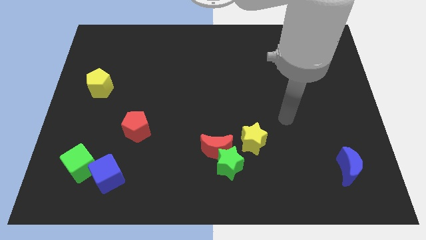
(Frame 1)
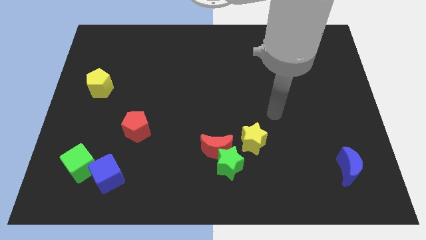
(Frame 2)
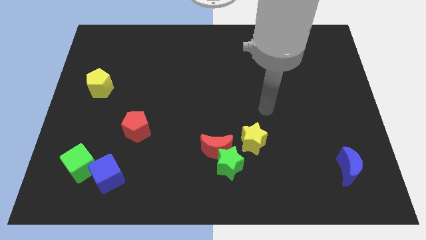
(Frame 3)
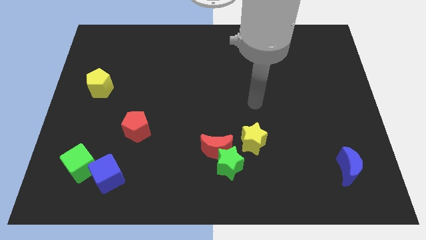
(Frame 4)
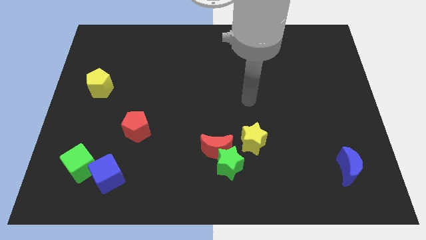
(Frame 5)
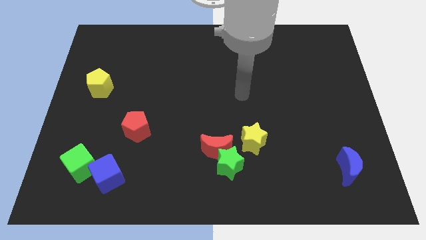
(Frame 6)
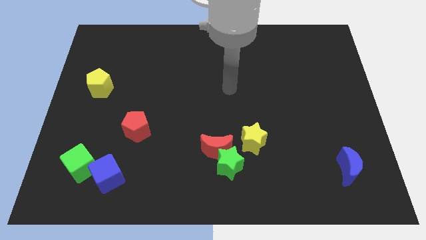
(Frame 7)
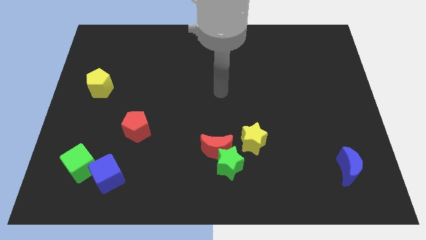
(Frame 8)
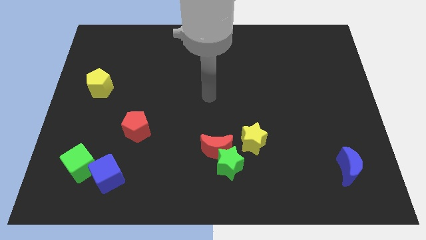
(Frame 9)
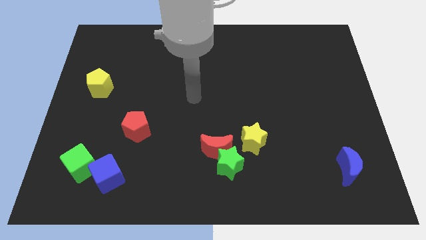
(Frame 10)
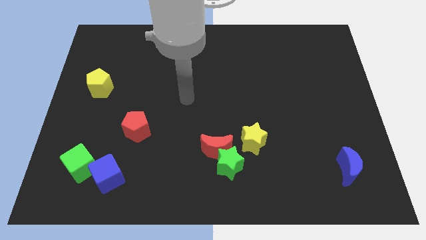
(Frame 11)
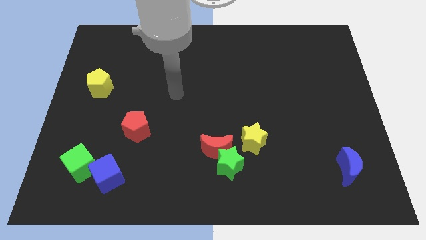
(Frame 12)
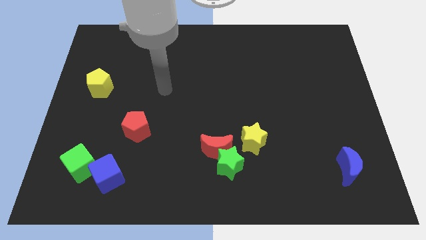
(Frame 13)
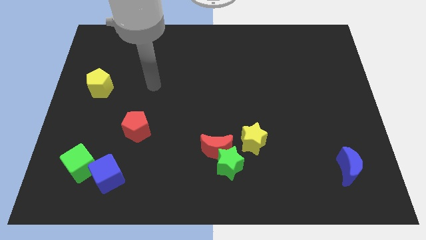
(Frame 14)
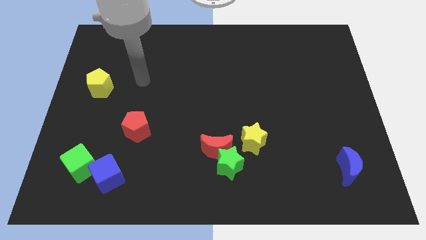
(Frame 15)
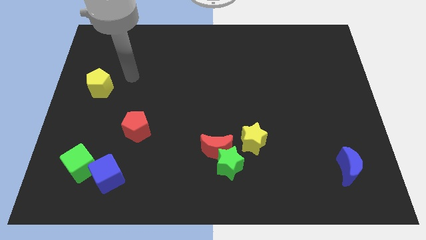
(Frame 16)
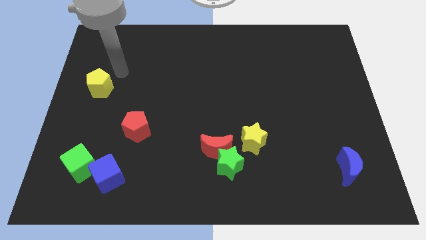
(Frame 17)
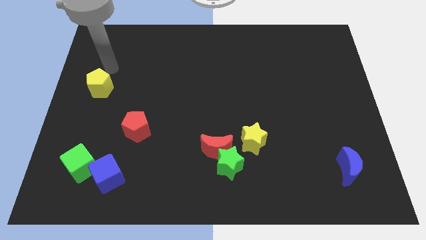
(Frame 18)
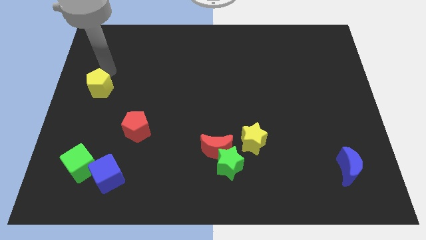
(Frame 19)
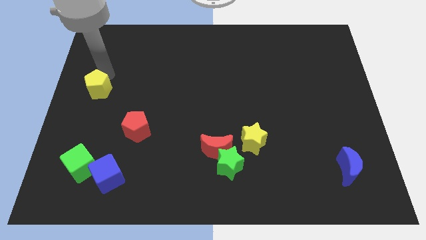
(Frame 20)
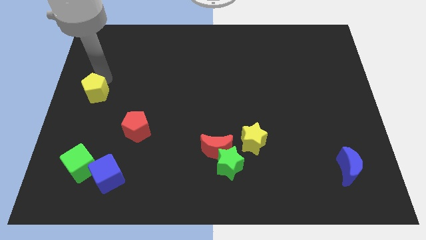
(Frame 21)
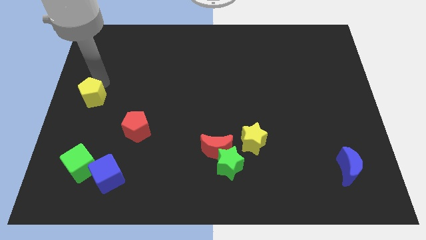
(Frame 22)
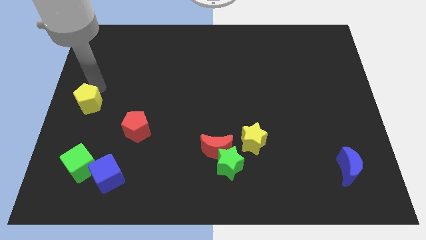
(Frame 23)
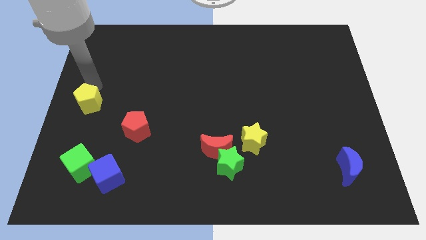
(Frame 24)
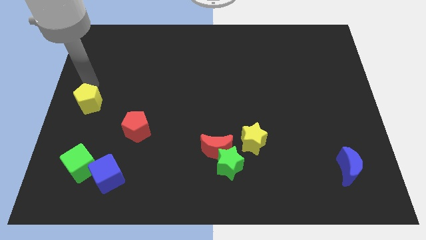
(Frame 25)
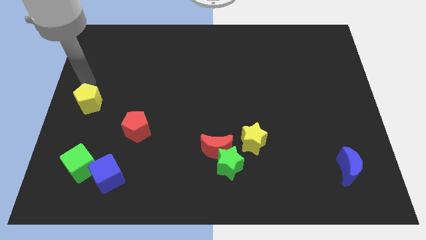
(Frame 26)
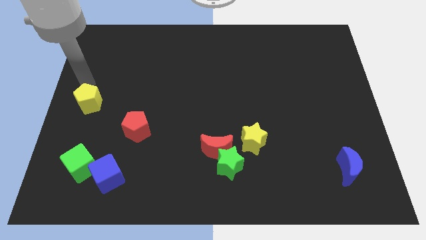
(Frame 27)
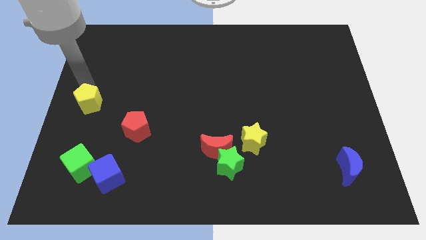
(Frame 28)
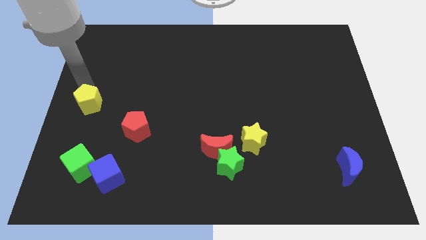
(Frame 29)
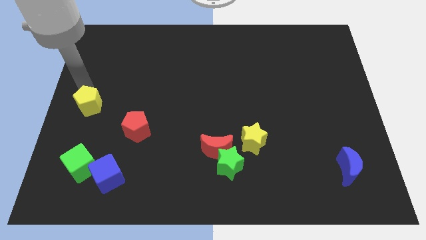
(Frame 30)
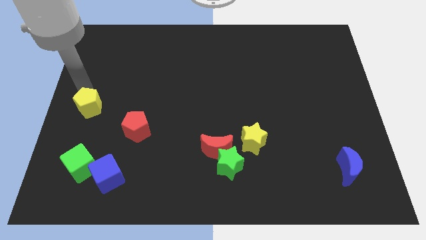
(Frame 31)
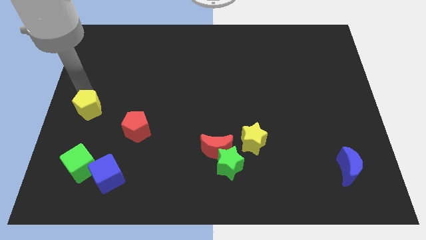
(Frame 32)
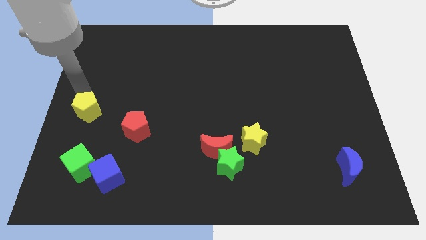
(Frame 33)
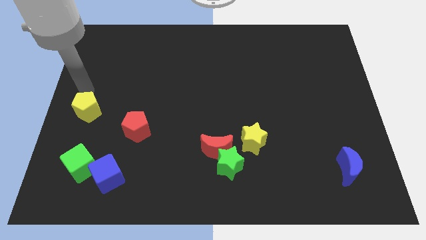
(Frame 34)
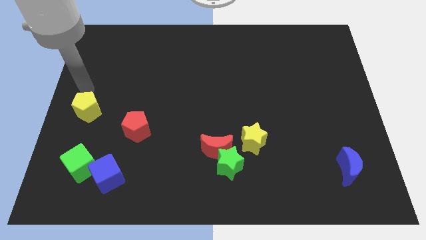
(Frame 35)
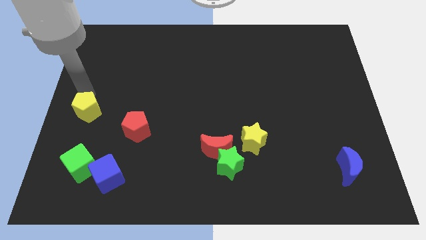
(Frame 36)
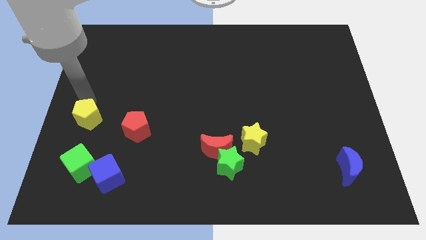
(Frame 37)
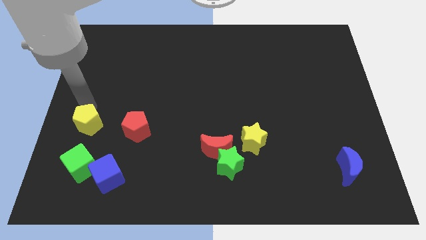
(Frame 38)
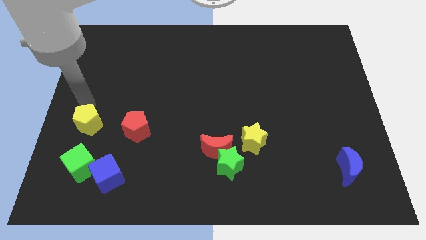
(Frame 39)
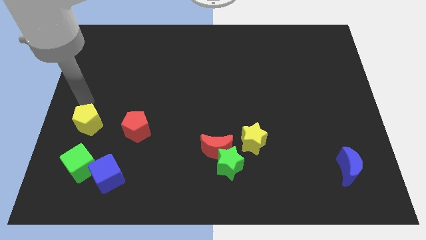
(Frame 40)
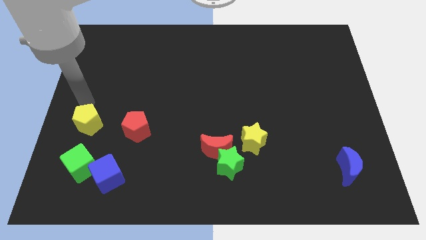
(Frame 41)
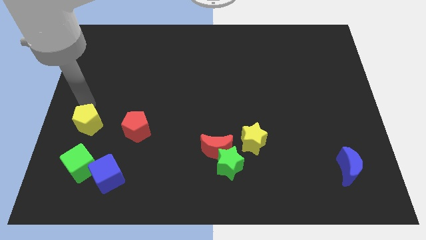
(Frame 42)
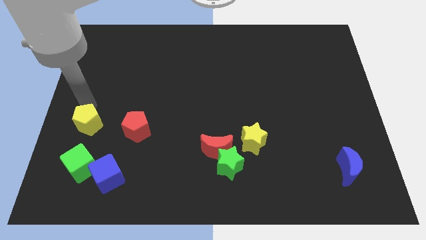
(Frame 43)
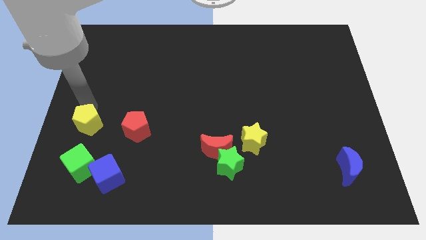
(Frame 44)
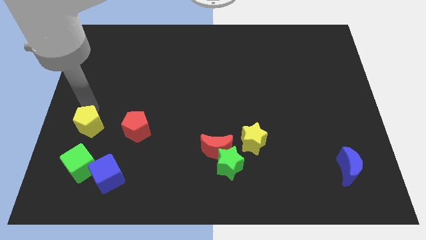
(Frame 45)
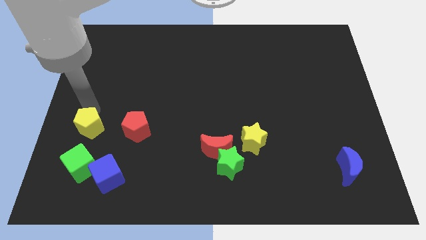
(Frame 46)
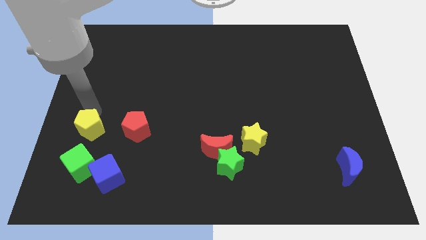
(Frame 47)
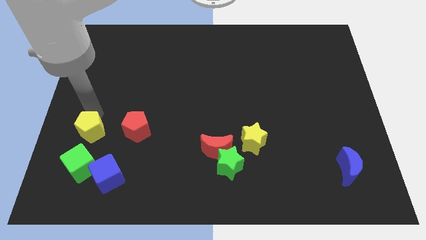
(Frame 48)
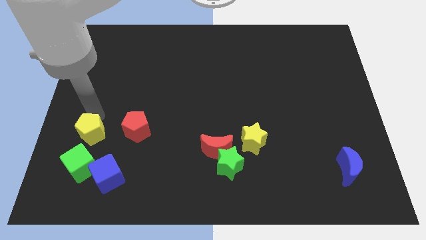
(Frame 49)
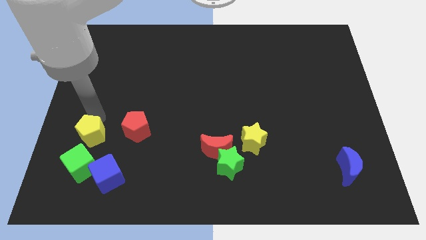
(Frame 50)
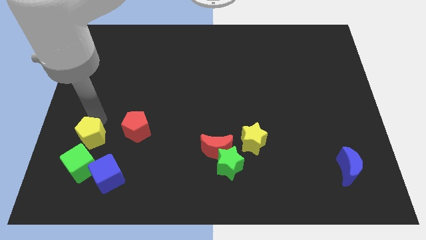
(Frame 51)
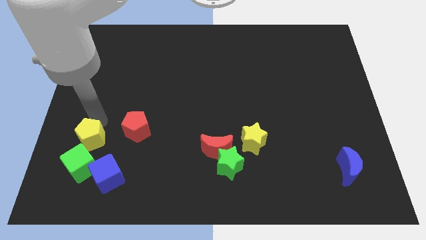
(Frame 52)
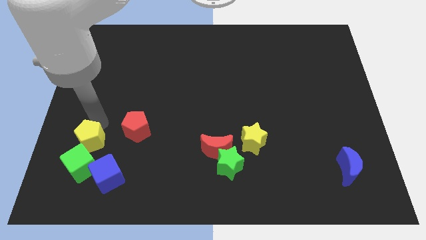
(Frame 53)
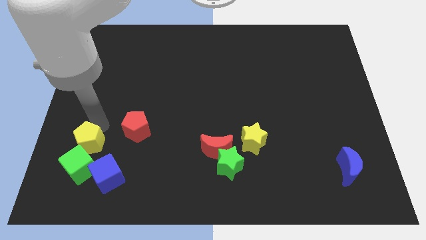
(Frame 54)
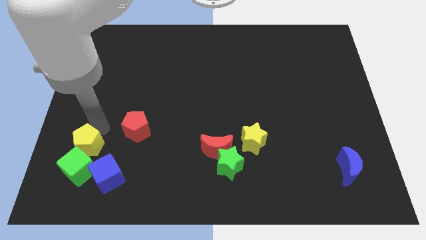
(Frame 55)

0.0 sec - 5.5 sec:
push the yellow pentagon towards the green cube

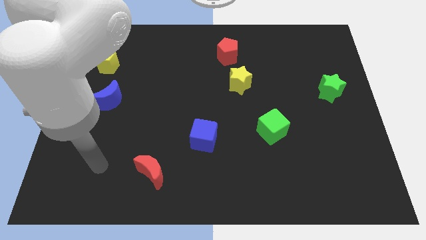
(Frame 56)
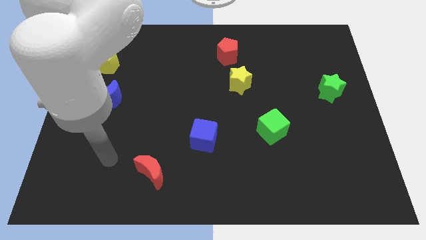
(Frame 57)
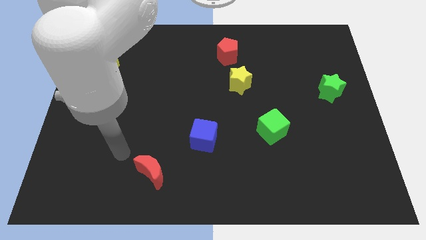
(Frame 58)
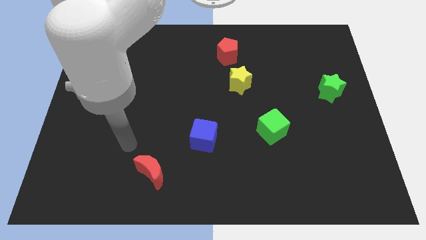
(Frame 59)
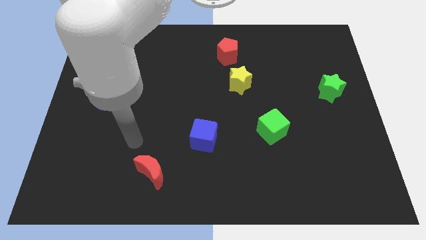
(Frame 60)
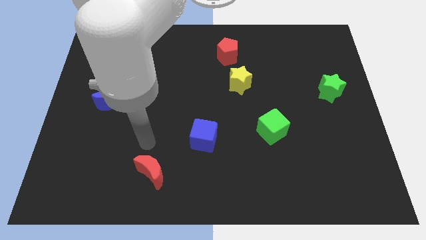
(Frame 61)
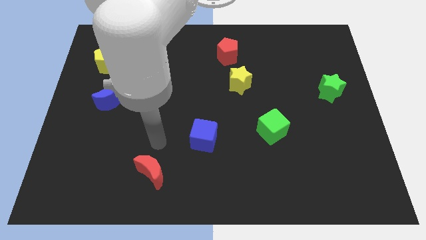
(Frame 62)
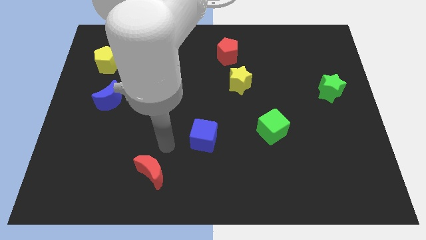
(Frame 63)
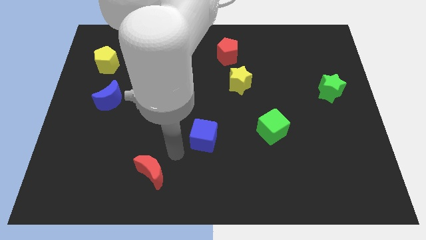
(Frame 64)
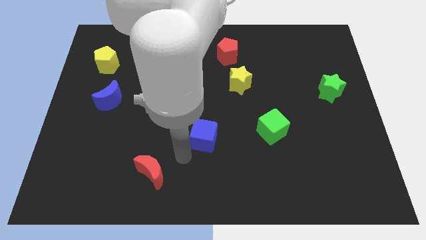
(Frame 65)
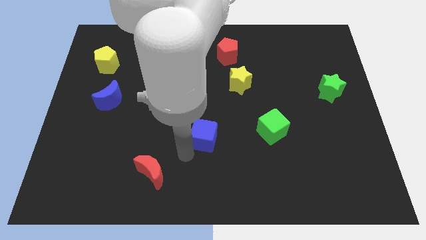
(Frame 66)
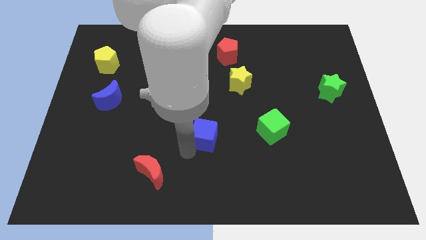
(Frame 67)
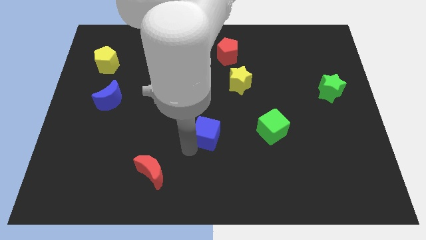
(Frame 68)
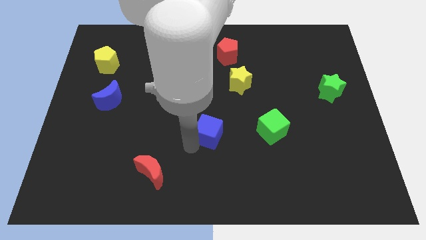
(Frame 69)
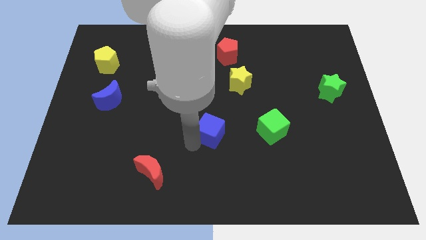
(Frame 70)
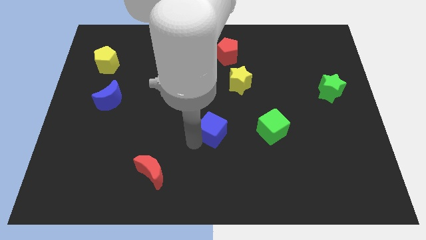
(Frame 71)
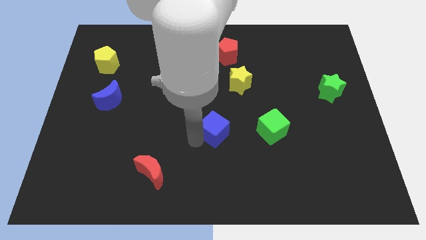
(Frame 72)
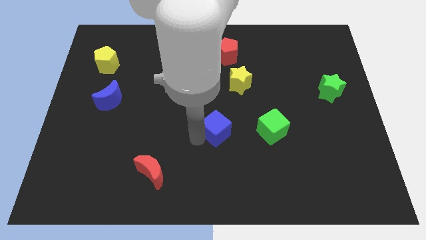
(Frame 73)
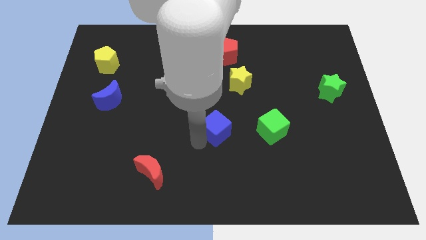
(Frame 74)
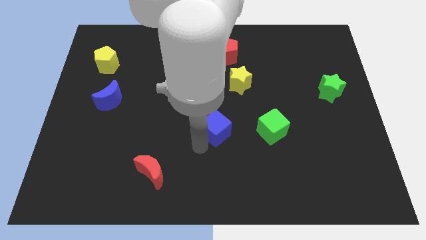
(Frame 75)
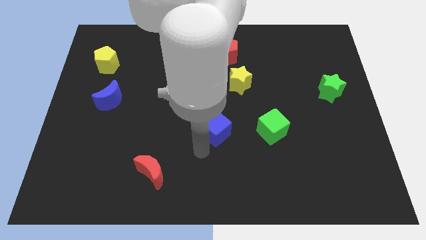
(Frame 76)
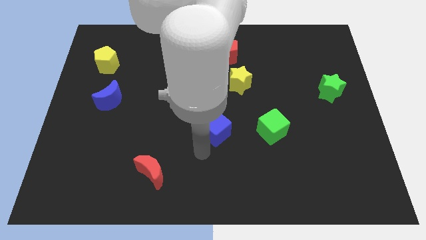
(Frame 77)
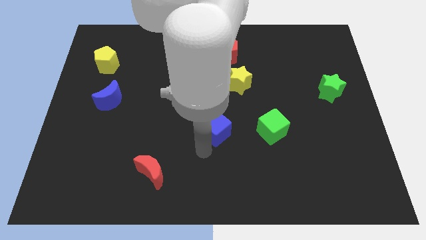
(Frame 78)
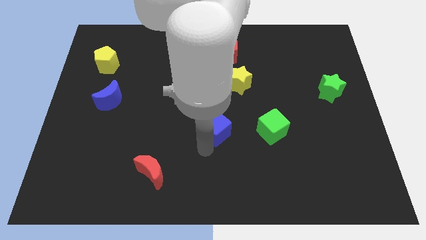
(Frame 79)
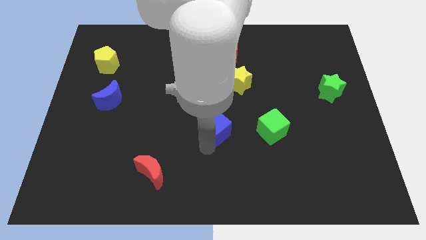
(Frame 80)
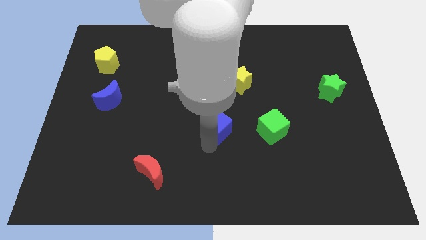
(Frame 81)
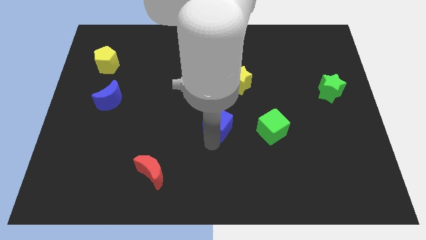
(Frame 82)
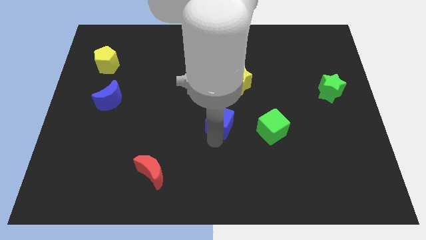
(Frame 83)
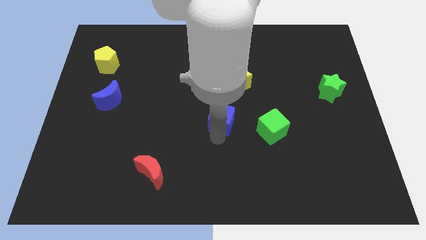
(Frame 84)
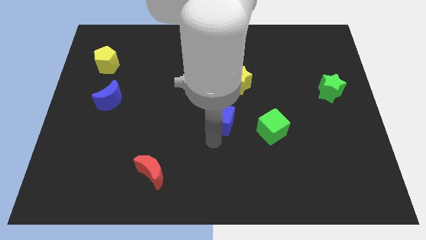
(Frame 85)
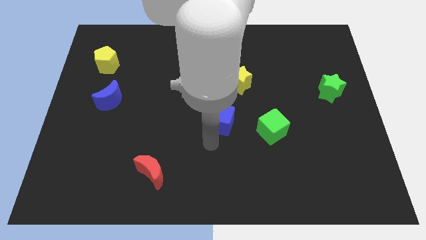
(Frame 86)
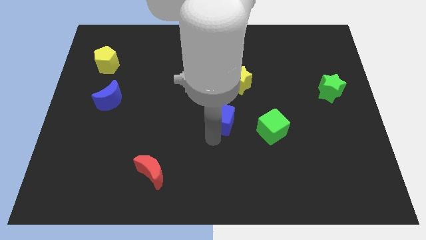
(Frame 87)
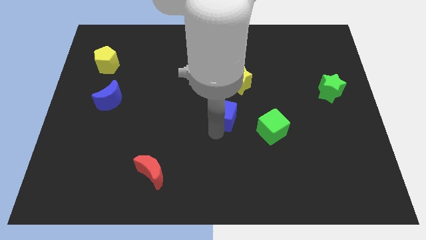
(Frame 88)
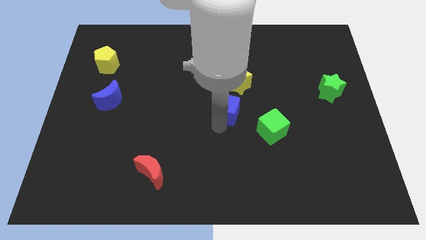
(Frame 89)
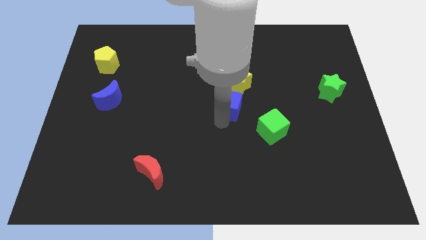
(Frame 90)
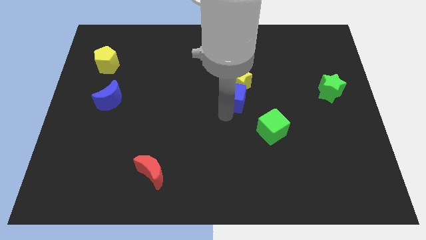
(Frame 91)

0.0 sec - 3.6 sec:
push the blue cube to the yellow star
